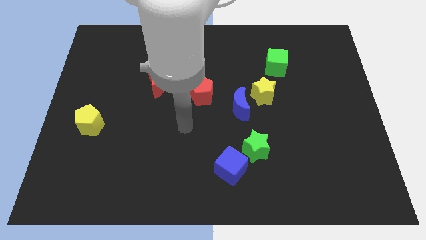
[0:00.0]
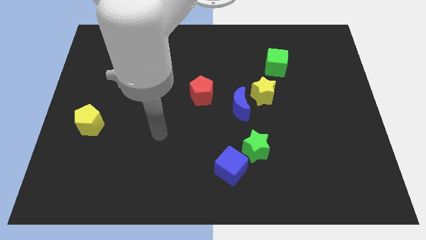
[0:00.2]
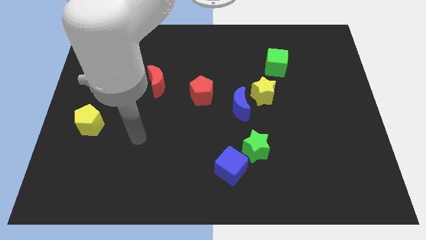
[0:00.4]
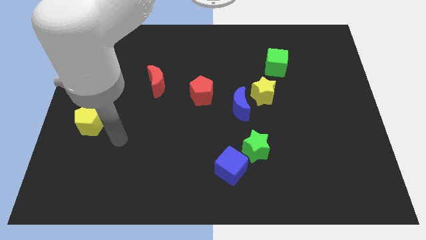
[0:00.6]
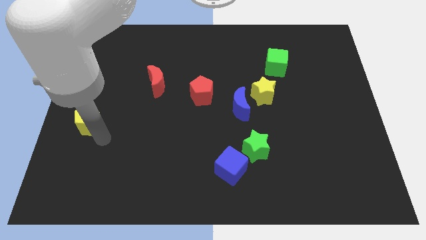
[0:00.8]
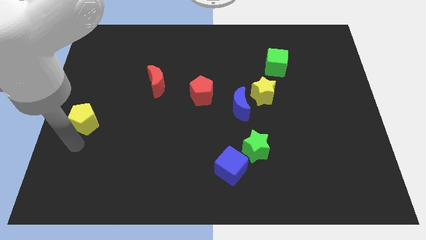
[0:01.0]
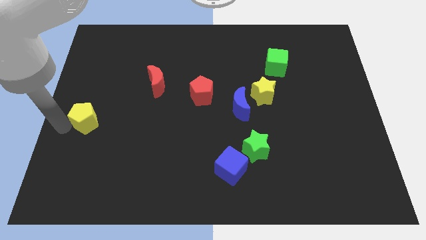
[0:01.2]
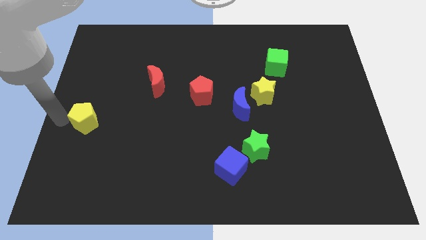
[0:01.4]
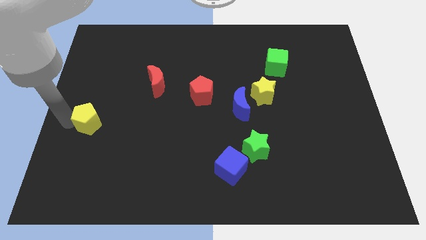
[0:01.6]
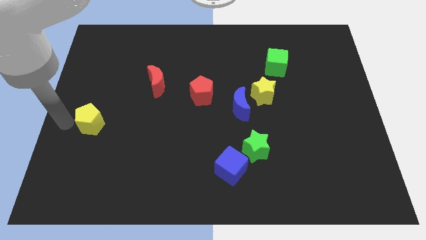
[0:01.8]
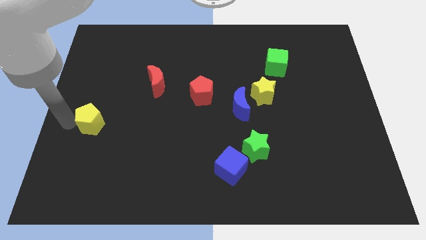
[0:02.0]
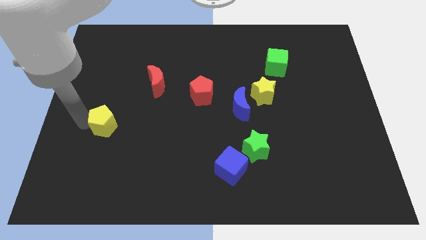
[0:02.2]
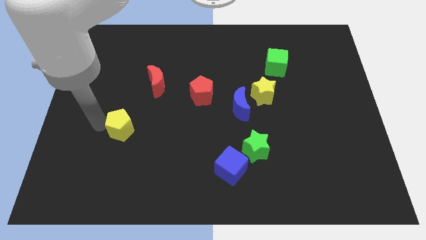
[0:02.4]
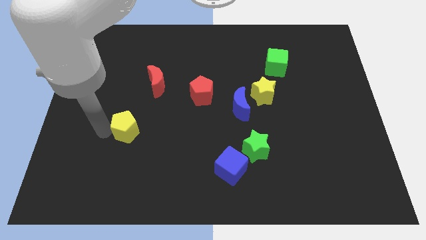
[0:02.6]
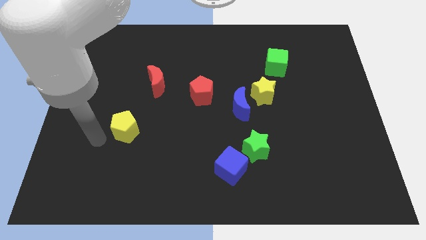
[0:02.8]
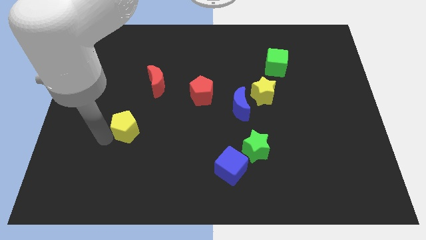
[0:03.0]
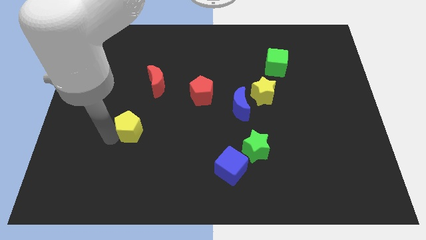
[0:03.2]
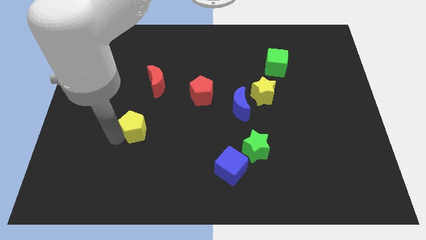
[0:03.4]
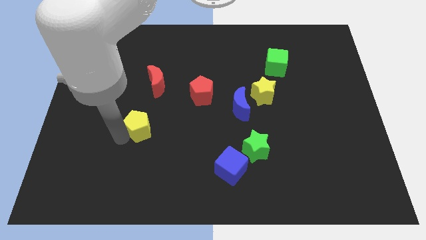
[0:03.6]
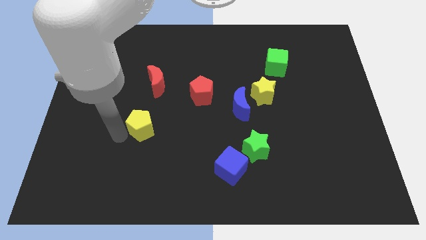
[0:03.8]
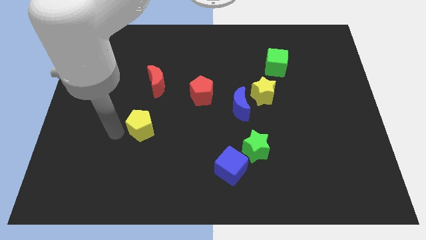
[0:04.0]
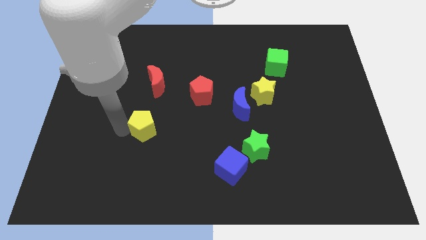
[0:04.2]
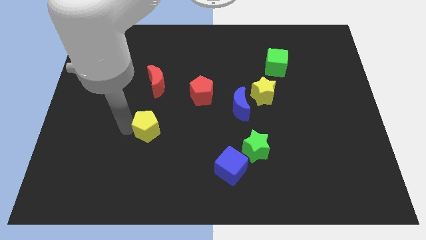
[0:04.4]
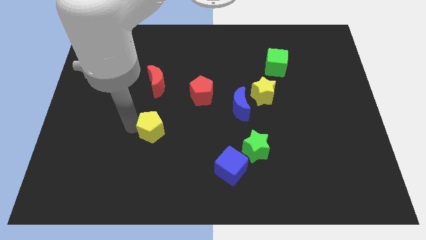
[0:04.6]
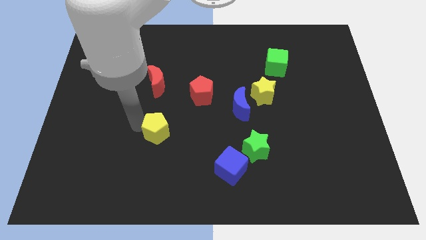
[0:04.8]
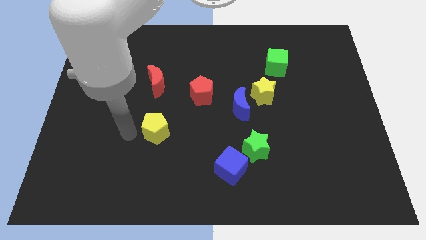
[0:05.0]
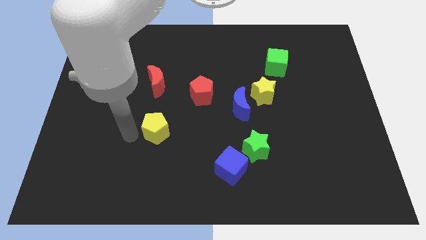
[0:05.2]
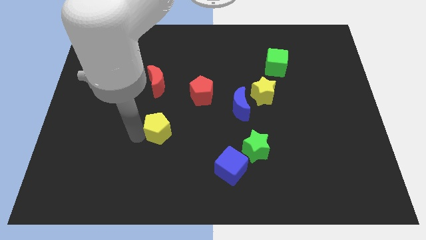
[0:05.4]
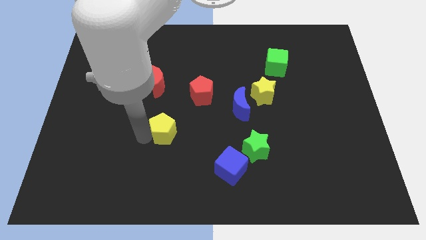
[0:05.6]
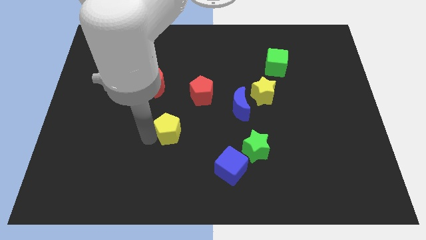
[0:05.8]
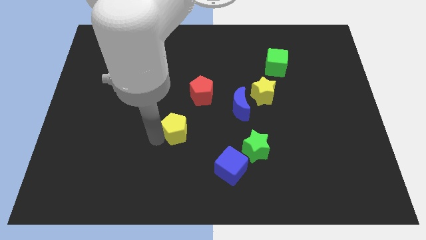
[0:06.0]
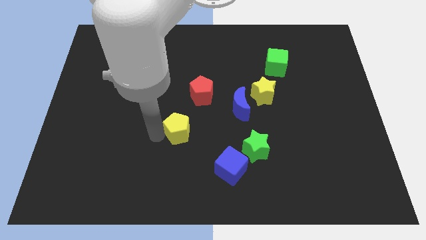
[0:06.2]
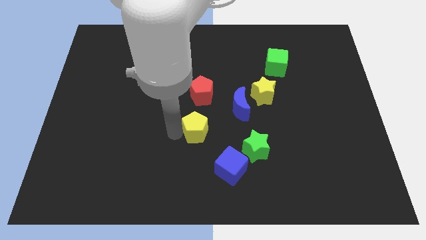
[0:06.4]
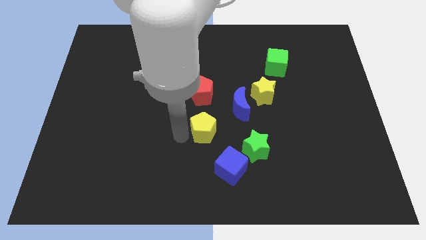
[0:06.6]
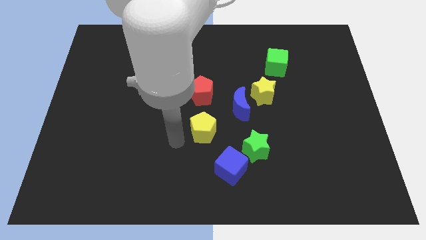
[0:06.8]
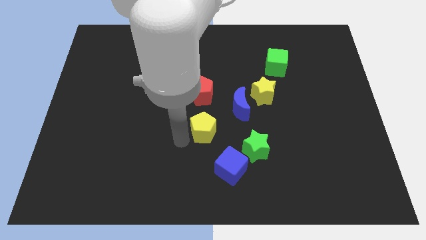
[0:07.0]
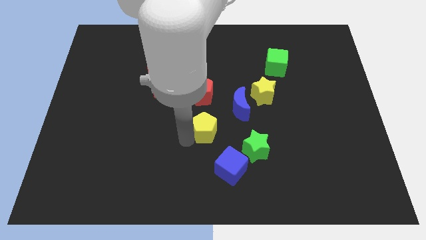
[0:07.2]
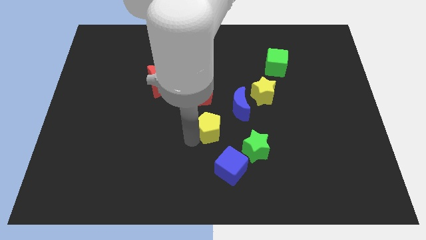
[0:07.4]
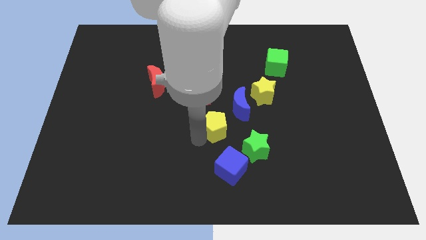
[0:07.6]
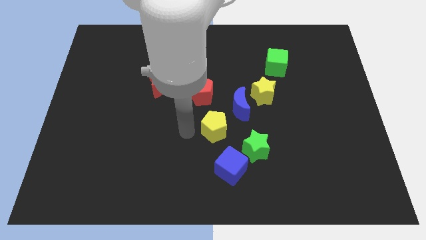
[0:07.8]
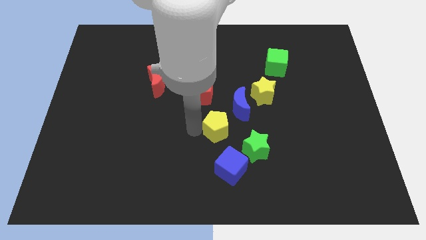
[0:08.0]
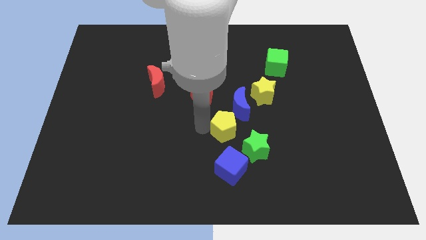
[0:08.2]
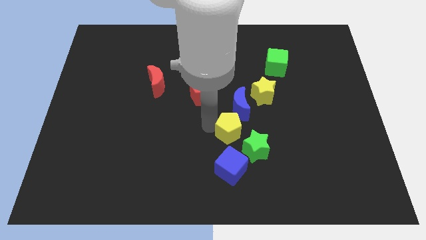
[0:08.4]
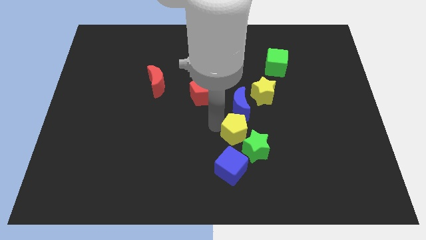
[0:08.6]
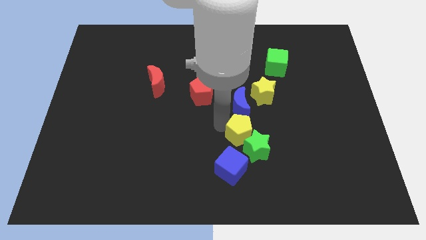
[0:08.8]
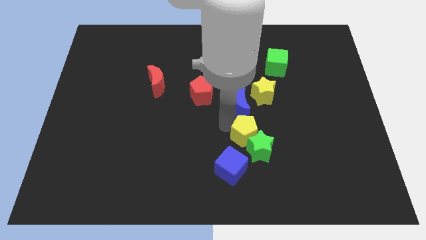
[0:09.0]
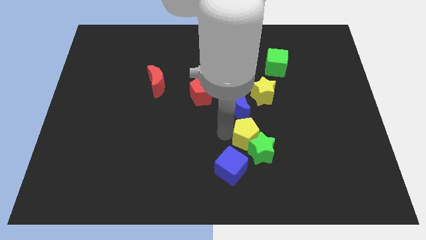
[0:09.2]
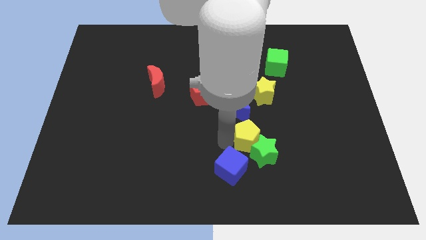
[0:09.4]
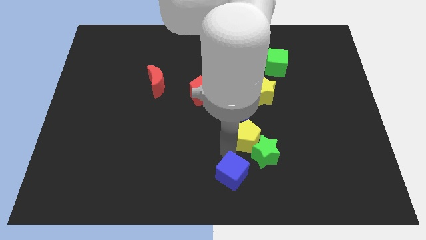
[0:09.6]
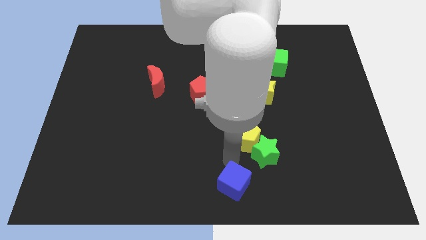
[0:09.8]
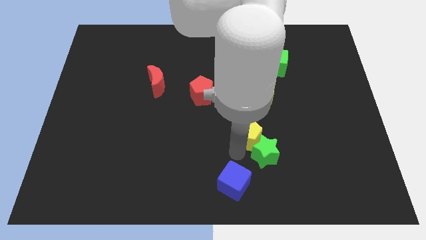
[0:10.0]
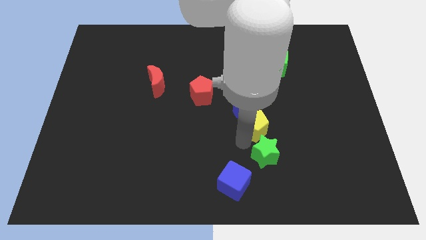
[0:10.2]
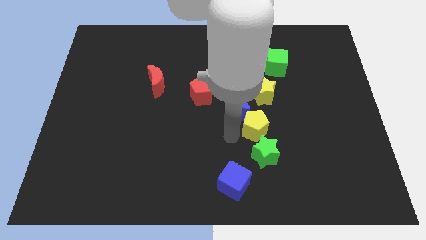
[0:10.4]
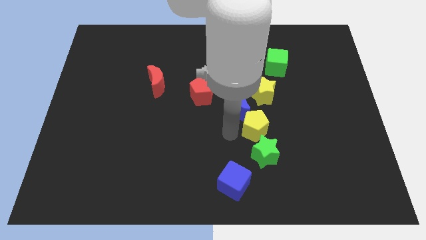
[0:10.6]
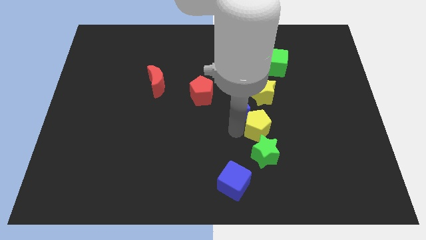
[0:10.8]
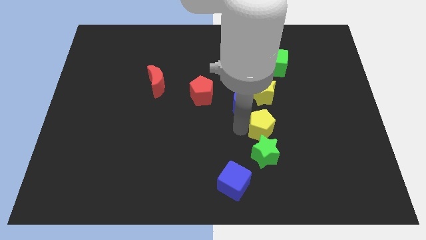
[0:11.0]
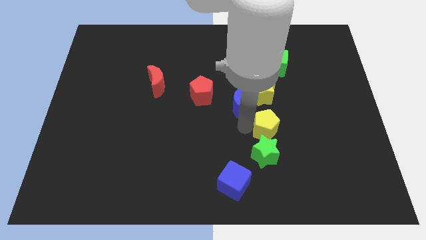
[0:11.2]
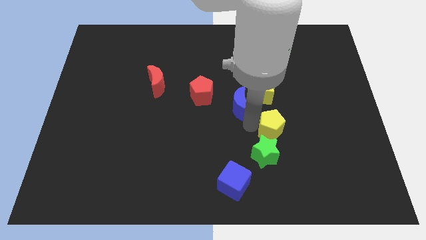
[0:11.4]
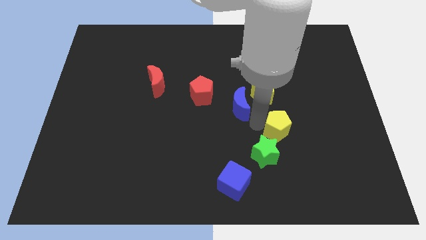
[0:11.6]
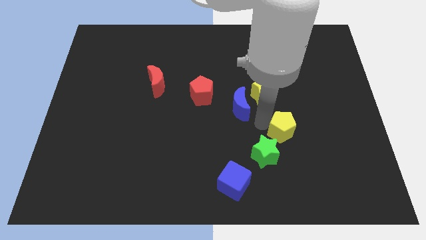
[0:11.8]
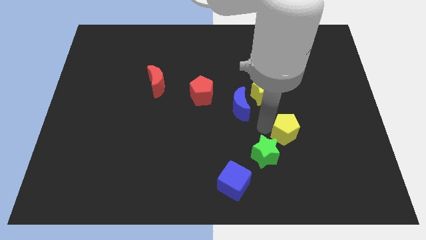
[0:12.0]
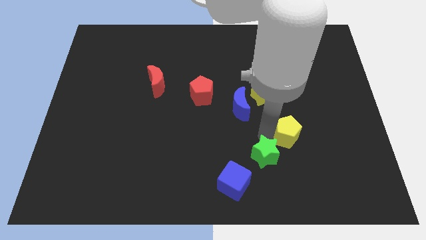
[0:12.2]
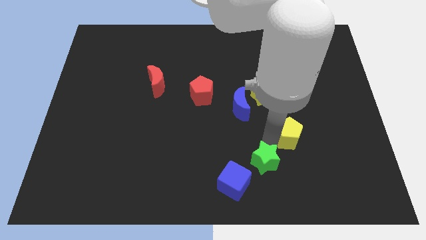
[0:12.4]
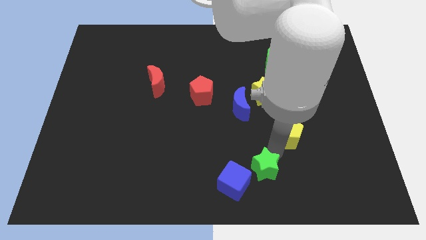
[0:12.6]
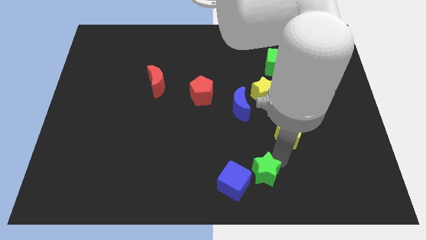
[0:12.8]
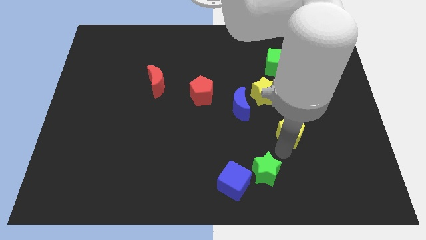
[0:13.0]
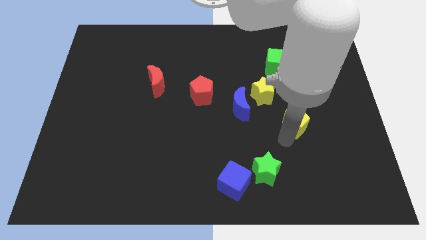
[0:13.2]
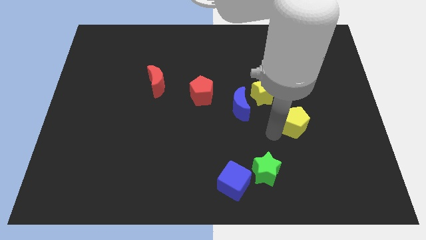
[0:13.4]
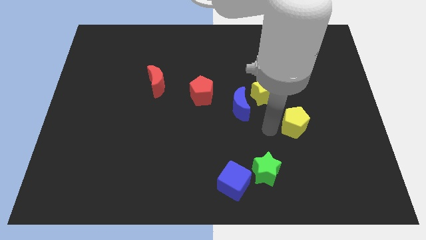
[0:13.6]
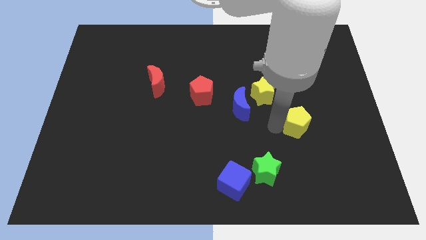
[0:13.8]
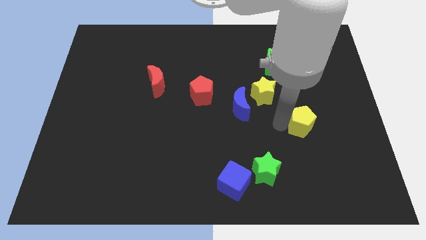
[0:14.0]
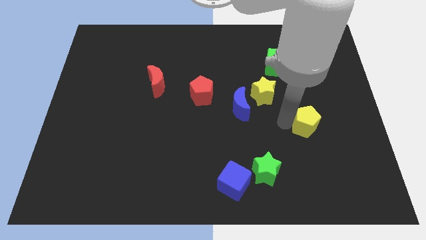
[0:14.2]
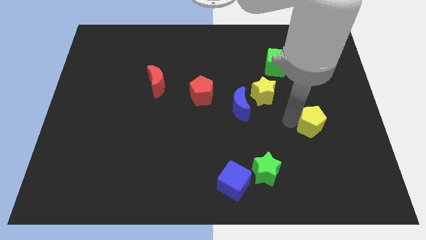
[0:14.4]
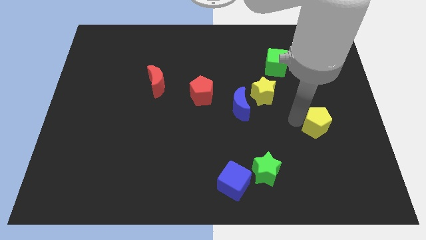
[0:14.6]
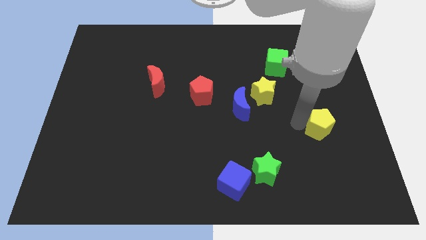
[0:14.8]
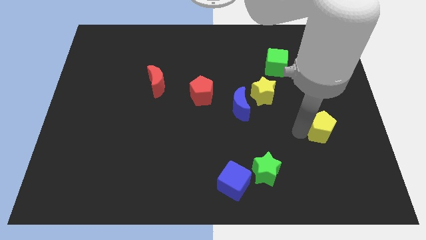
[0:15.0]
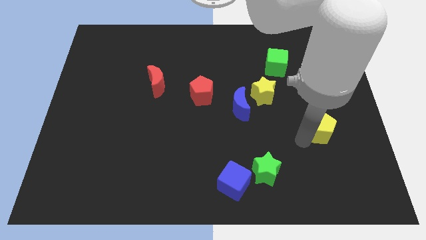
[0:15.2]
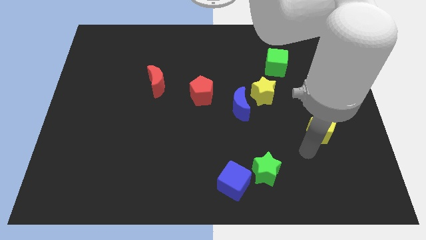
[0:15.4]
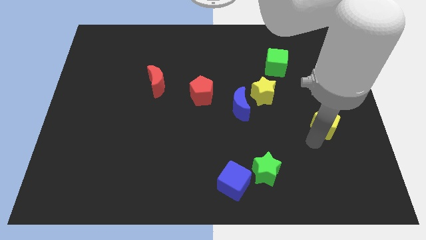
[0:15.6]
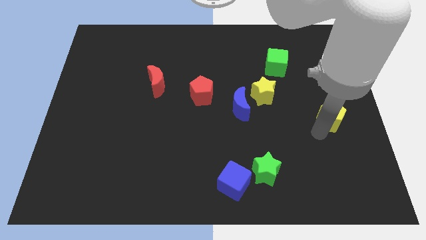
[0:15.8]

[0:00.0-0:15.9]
move the yellow pentagon to the right side of the board
